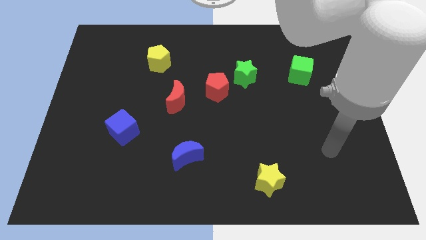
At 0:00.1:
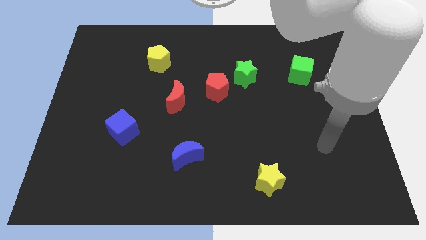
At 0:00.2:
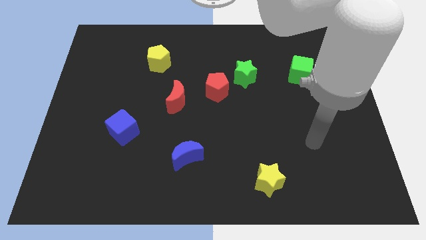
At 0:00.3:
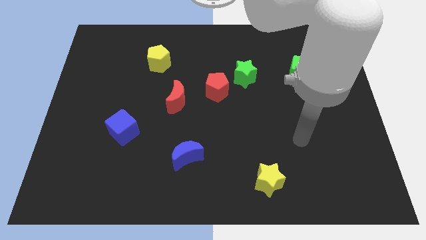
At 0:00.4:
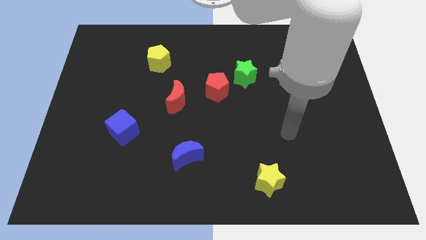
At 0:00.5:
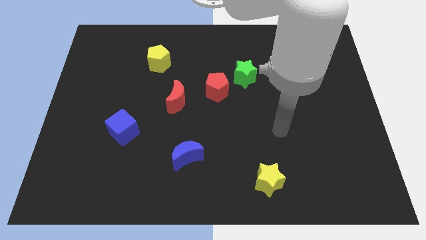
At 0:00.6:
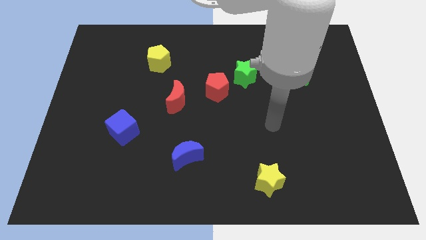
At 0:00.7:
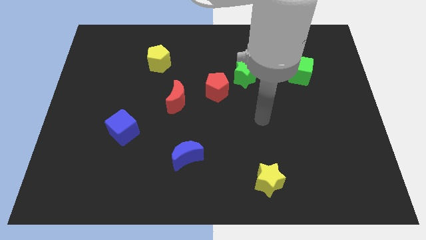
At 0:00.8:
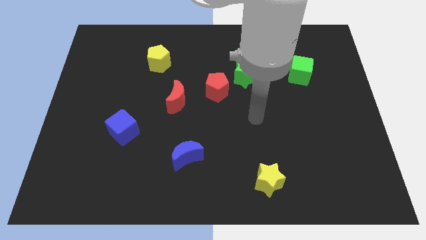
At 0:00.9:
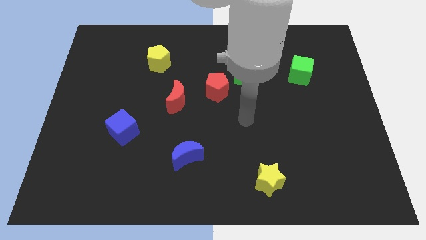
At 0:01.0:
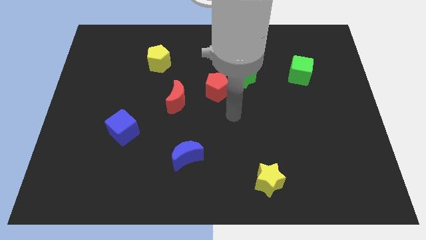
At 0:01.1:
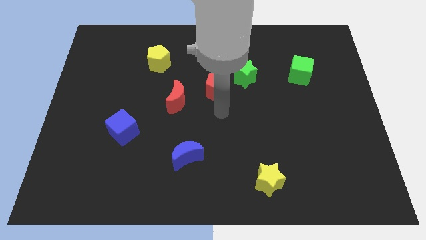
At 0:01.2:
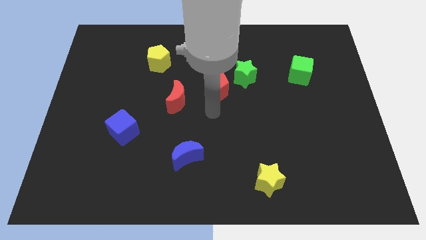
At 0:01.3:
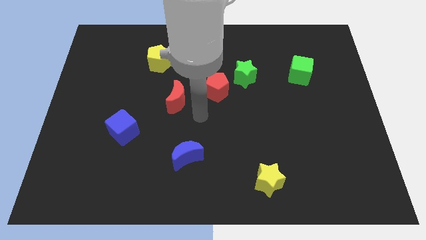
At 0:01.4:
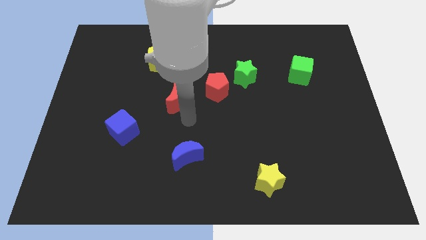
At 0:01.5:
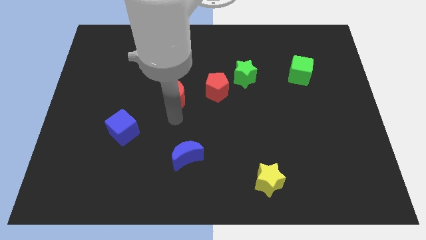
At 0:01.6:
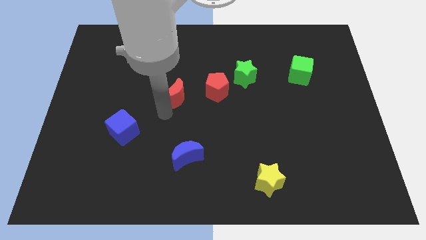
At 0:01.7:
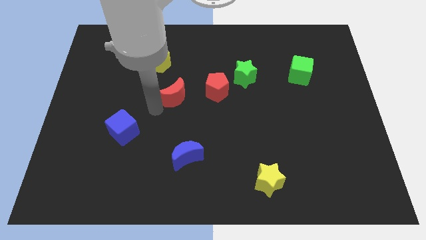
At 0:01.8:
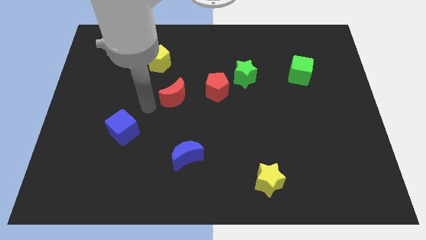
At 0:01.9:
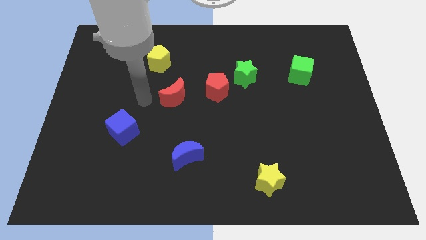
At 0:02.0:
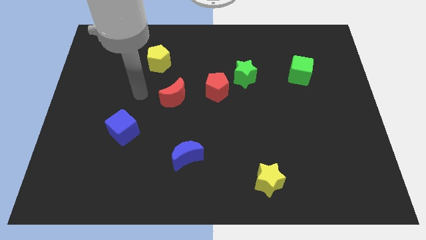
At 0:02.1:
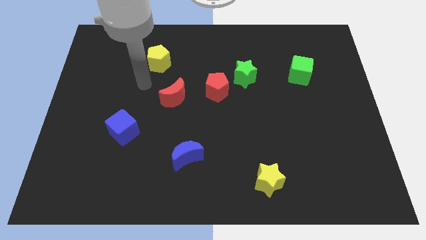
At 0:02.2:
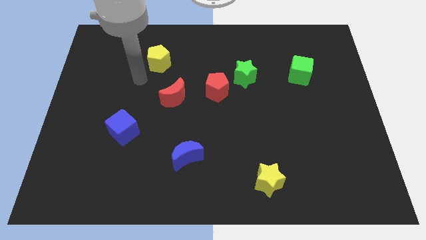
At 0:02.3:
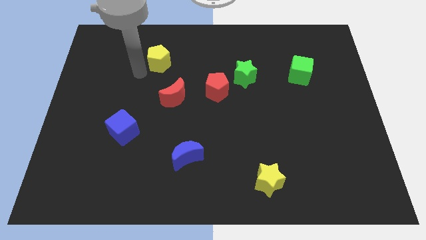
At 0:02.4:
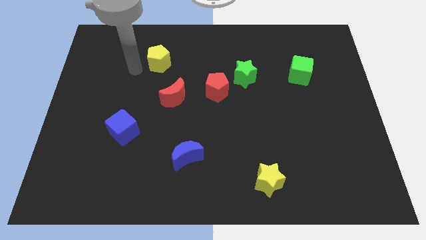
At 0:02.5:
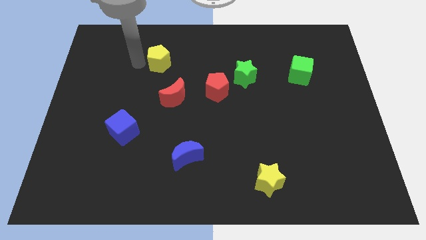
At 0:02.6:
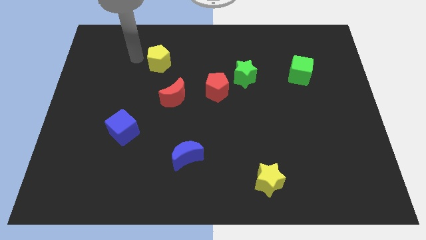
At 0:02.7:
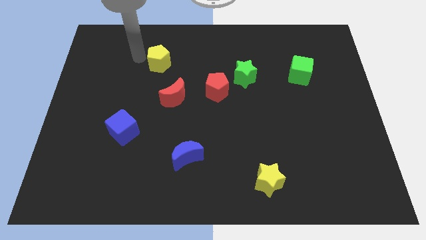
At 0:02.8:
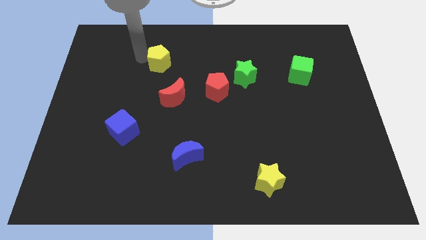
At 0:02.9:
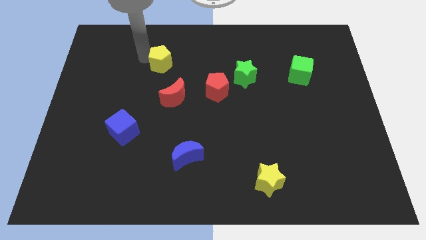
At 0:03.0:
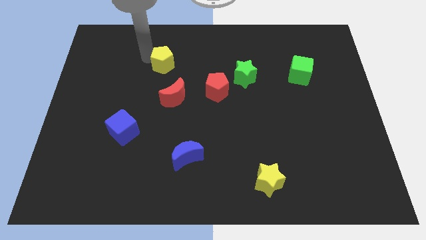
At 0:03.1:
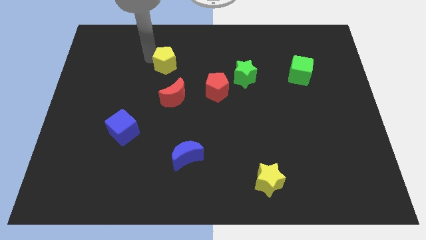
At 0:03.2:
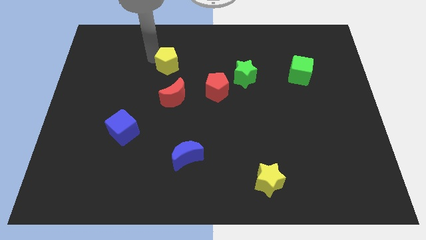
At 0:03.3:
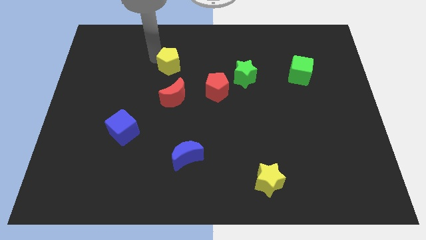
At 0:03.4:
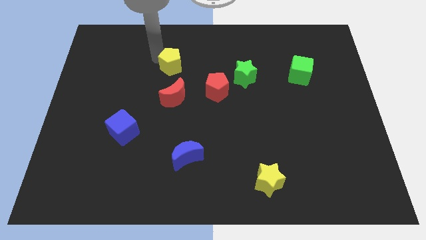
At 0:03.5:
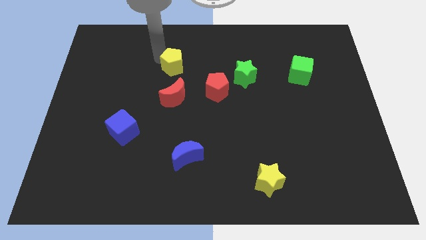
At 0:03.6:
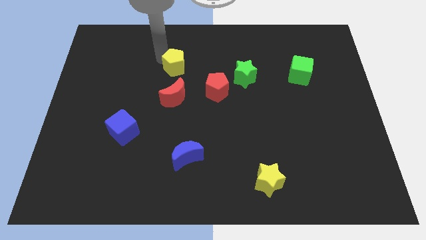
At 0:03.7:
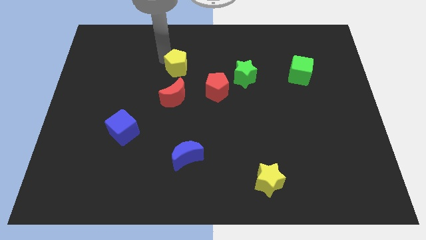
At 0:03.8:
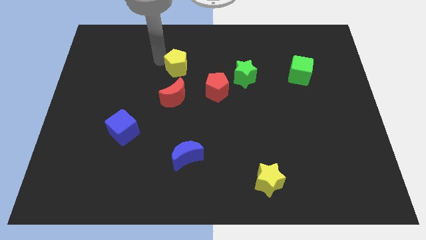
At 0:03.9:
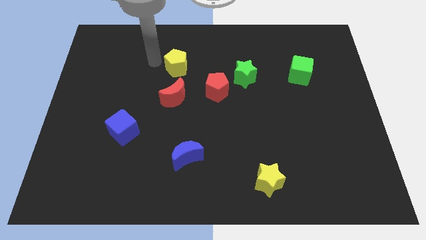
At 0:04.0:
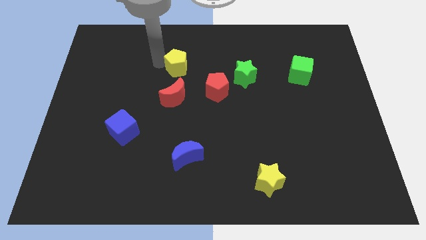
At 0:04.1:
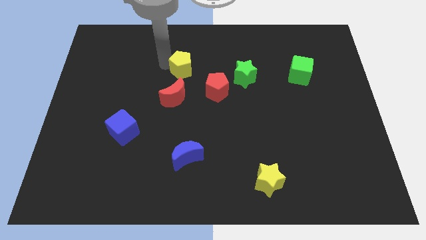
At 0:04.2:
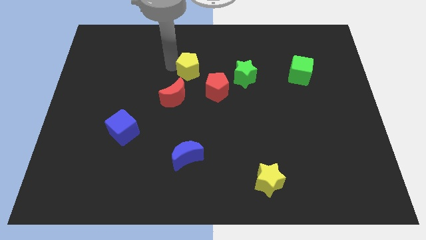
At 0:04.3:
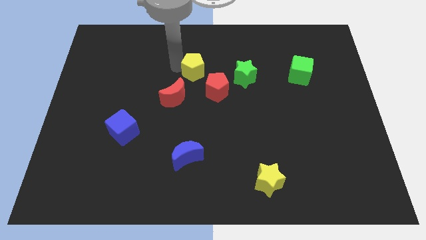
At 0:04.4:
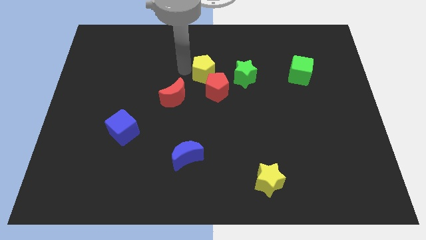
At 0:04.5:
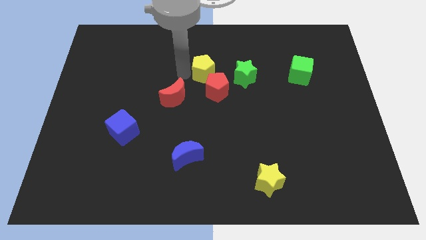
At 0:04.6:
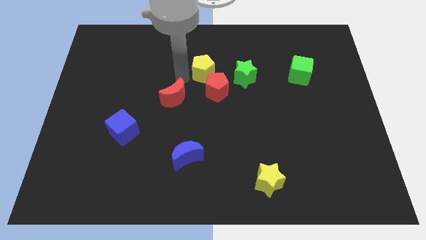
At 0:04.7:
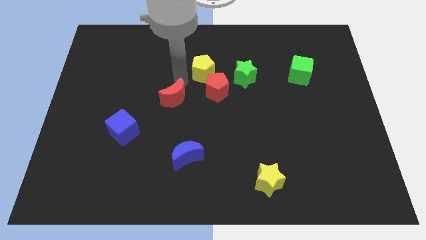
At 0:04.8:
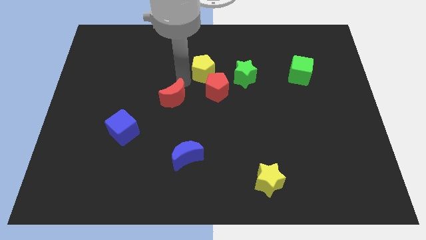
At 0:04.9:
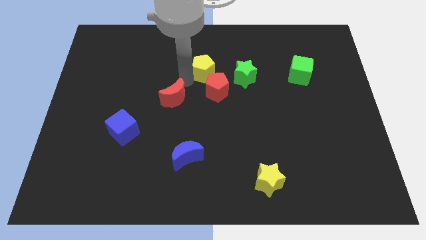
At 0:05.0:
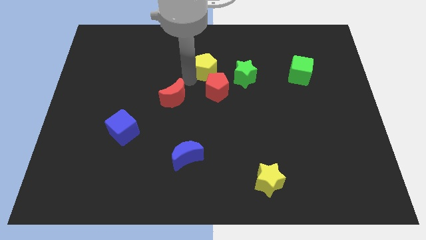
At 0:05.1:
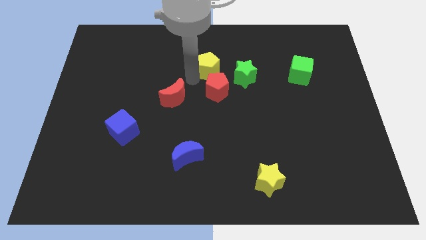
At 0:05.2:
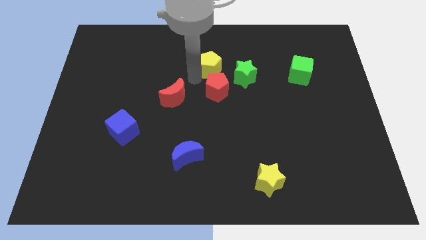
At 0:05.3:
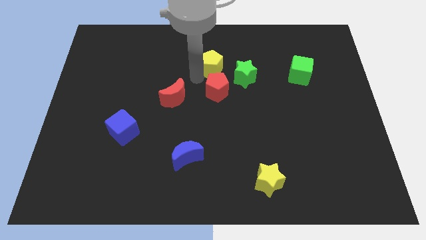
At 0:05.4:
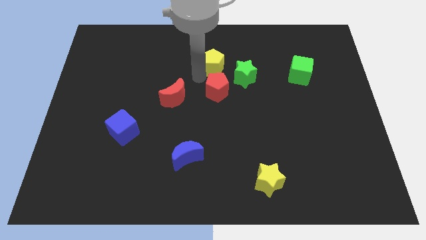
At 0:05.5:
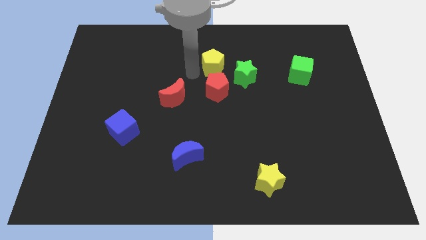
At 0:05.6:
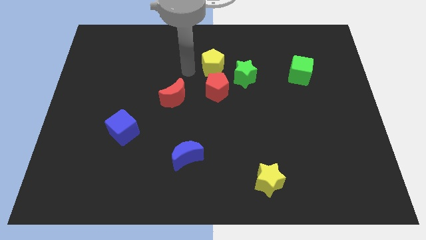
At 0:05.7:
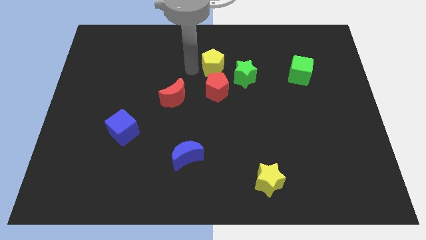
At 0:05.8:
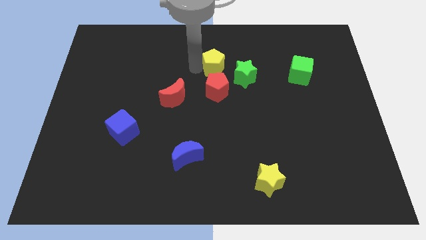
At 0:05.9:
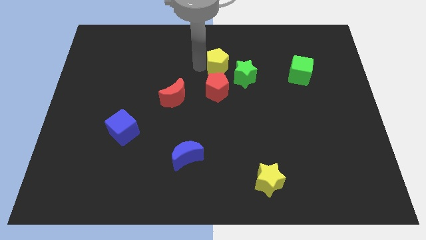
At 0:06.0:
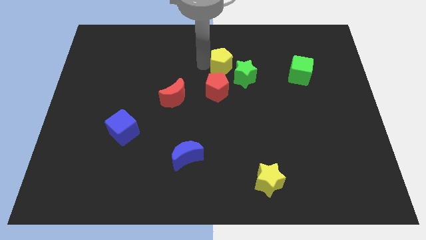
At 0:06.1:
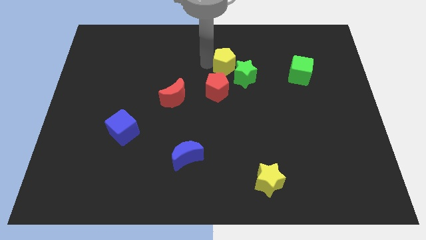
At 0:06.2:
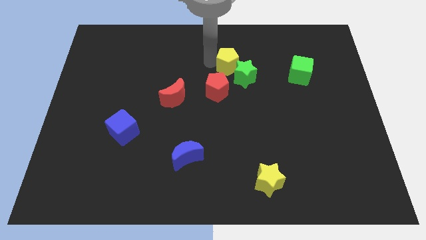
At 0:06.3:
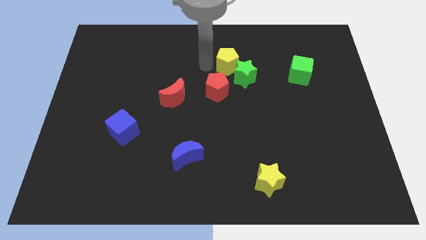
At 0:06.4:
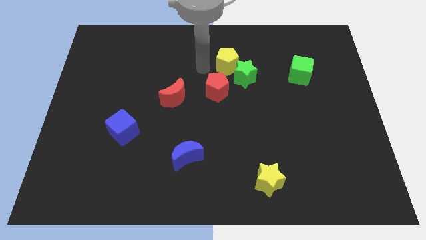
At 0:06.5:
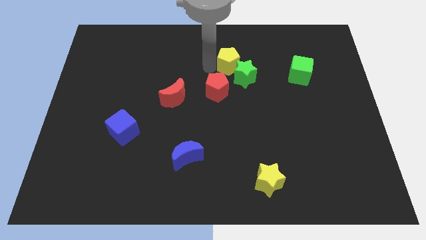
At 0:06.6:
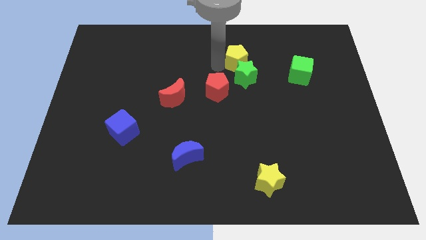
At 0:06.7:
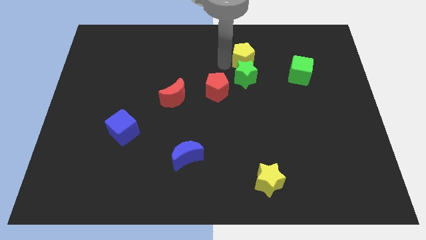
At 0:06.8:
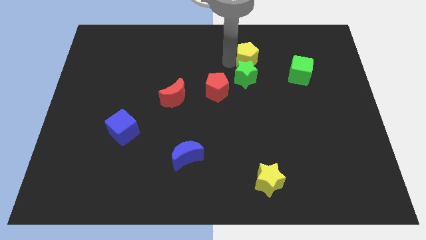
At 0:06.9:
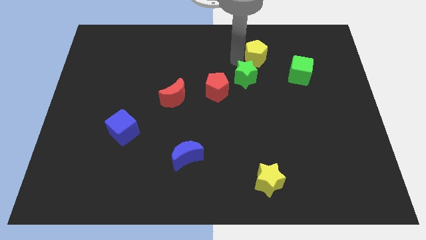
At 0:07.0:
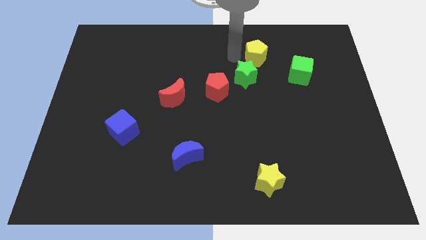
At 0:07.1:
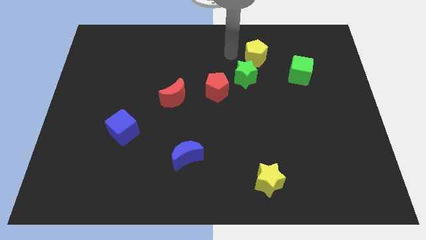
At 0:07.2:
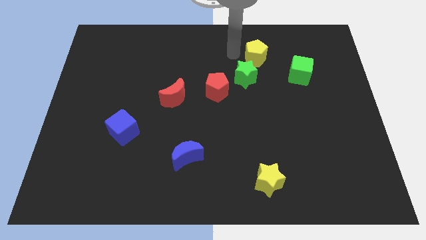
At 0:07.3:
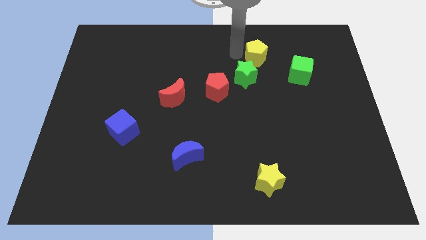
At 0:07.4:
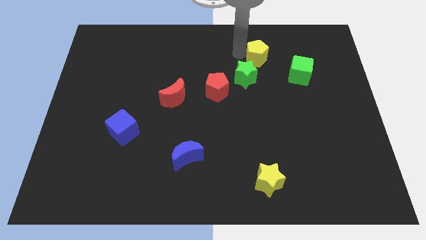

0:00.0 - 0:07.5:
slide the yellow pentagon to the top left side of the green cube
